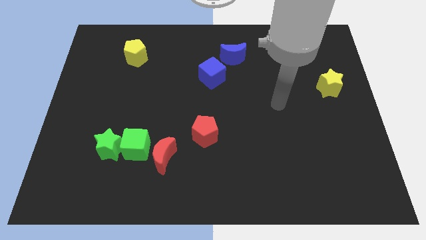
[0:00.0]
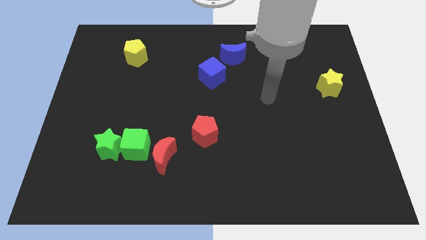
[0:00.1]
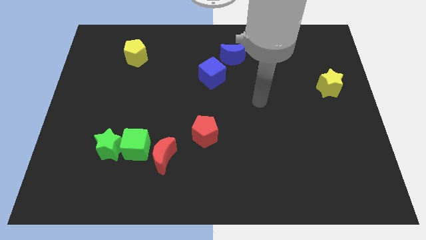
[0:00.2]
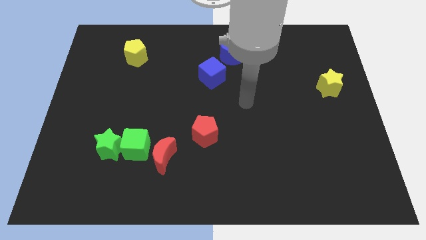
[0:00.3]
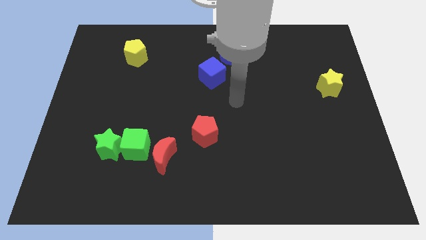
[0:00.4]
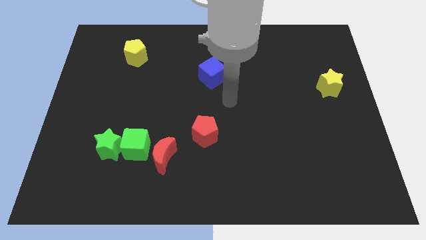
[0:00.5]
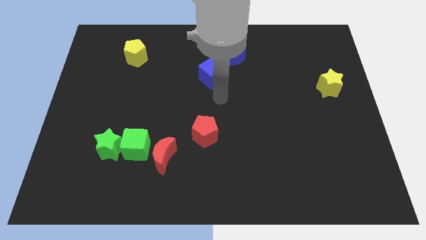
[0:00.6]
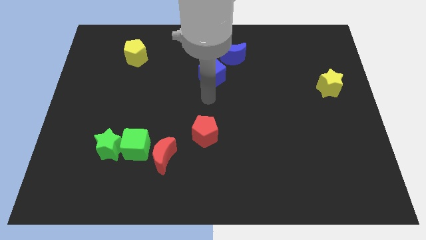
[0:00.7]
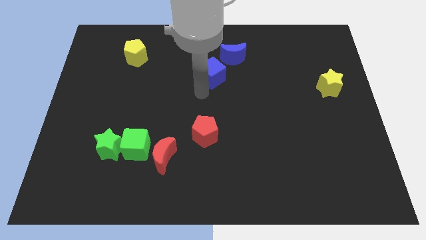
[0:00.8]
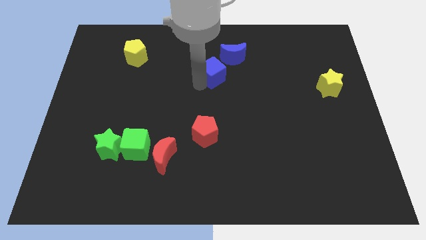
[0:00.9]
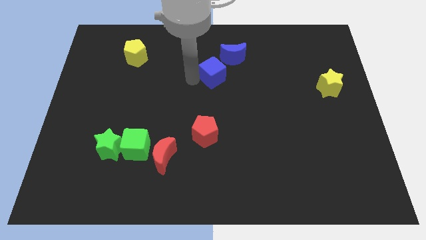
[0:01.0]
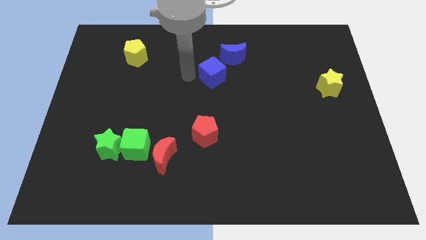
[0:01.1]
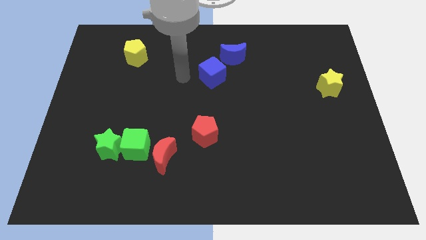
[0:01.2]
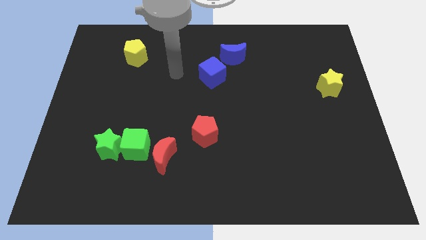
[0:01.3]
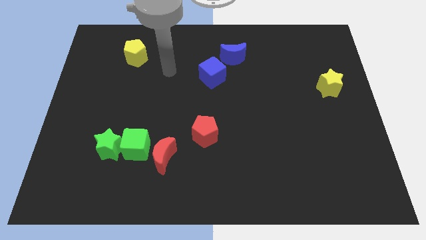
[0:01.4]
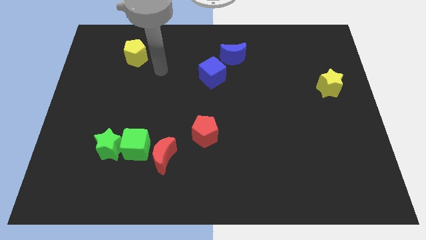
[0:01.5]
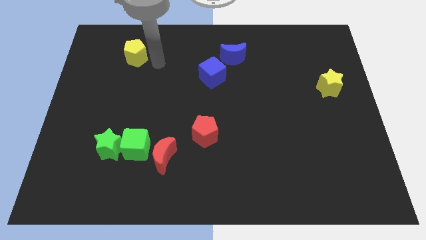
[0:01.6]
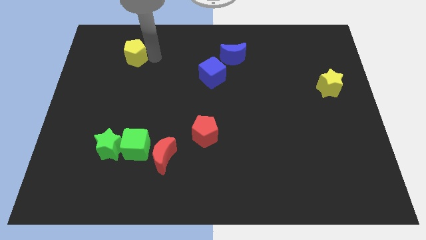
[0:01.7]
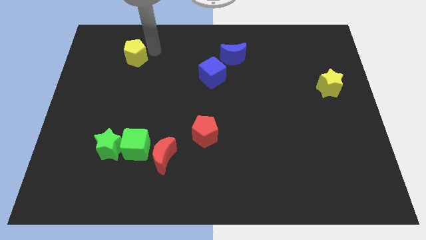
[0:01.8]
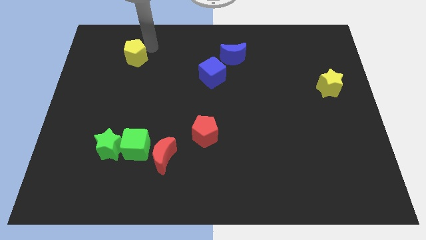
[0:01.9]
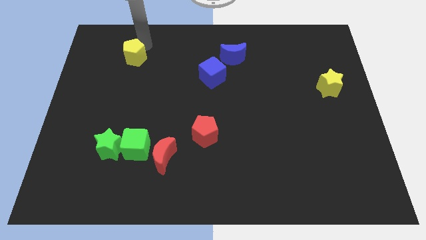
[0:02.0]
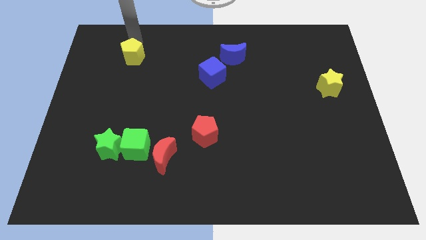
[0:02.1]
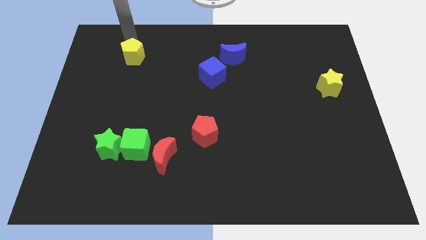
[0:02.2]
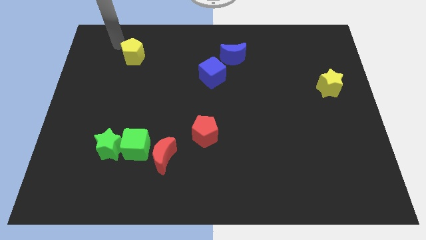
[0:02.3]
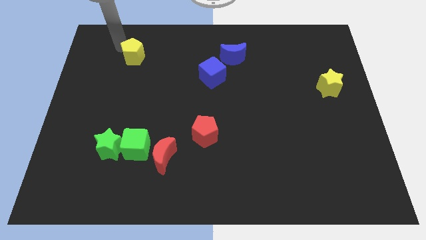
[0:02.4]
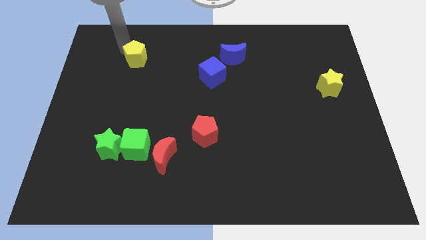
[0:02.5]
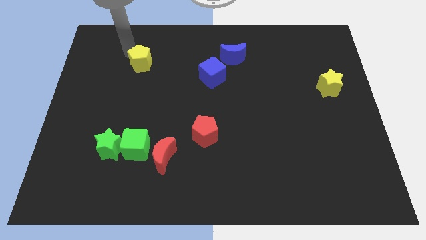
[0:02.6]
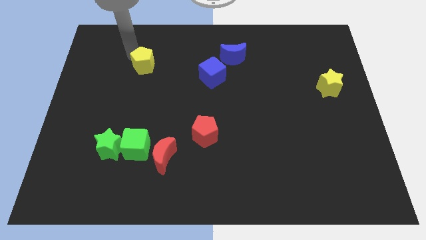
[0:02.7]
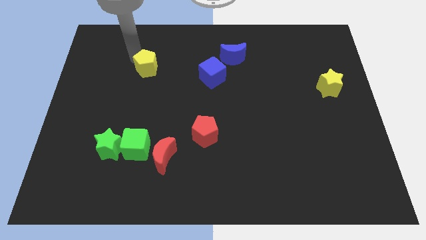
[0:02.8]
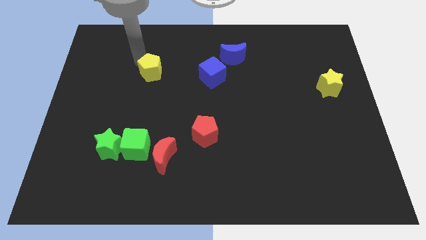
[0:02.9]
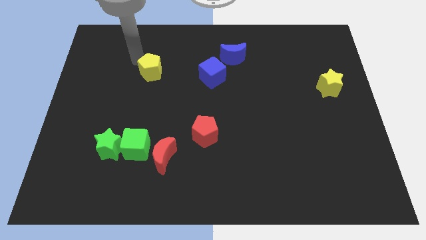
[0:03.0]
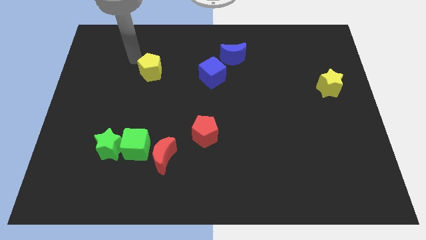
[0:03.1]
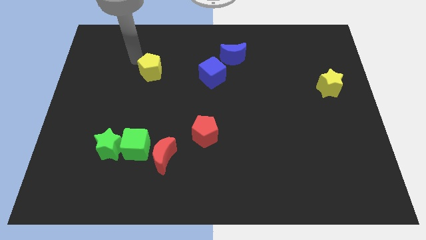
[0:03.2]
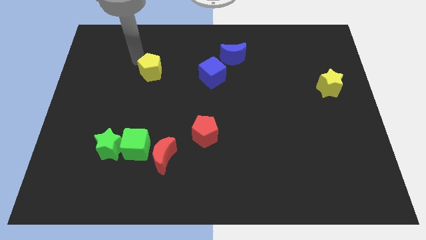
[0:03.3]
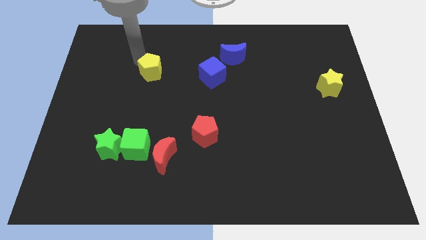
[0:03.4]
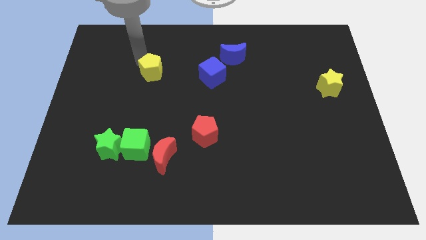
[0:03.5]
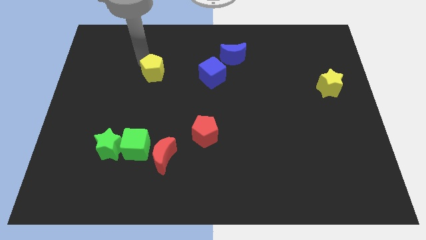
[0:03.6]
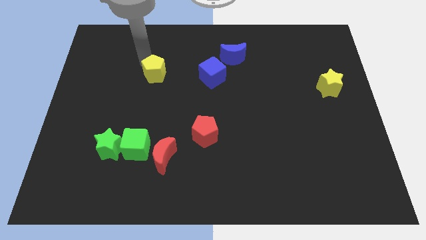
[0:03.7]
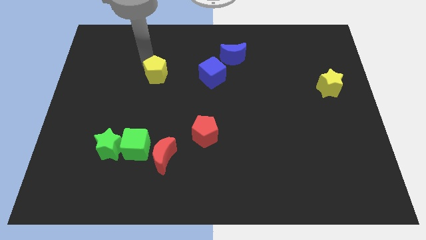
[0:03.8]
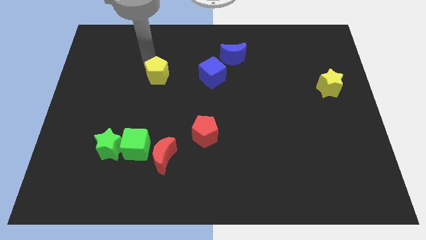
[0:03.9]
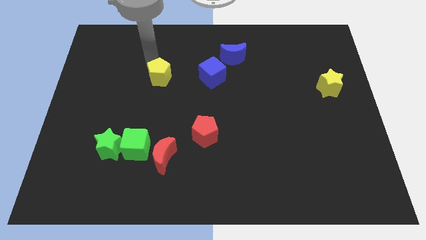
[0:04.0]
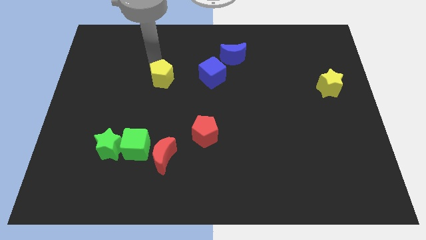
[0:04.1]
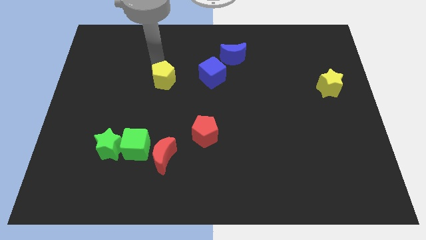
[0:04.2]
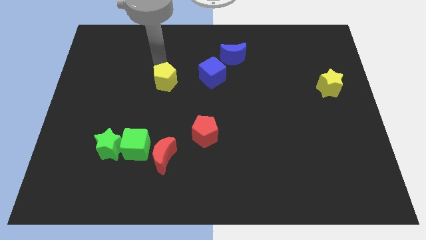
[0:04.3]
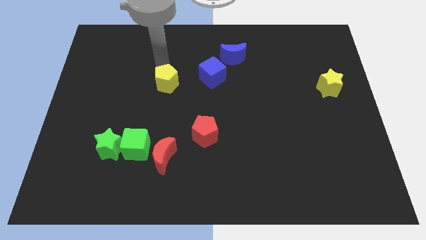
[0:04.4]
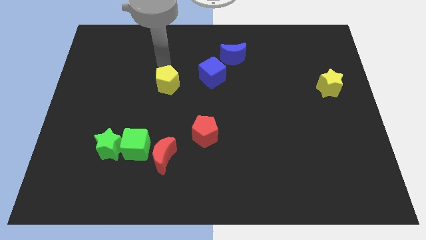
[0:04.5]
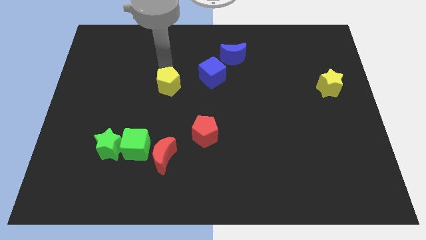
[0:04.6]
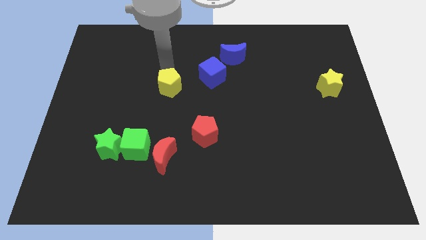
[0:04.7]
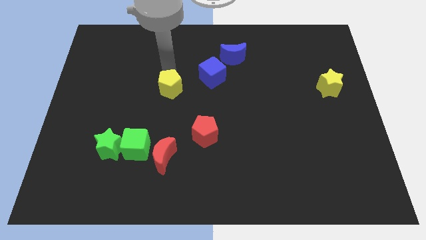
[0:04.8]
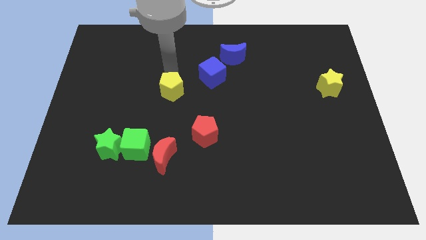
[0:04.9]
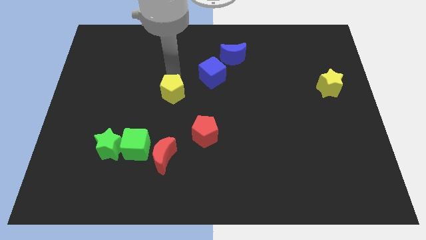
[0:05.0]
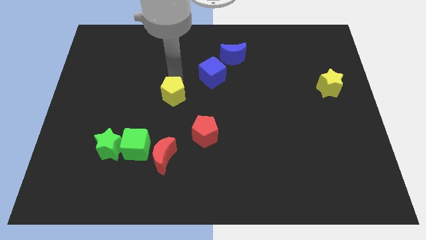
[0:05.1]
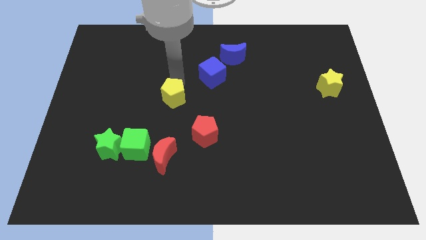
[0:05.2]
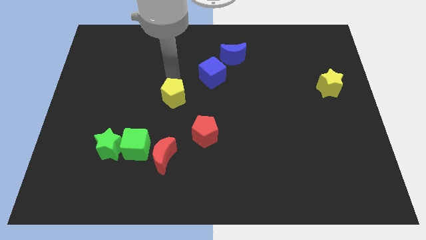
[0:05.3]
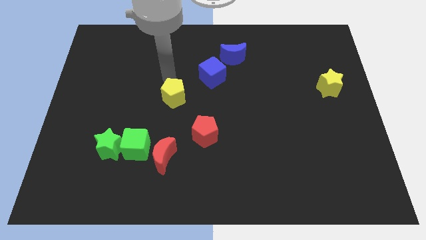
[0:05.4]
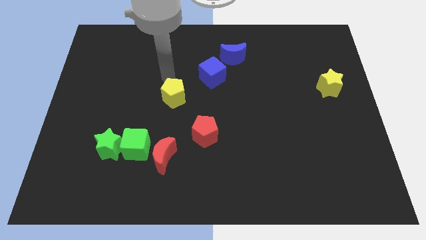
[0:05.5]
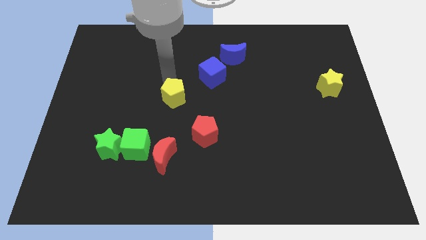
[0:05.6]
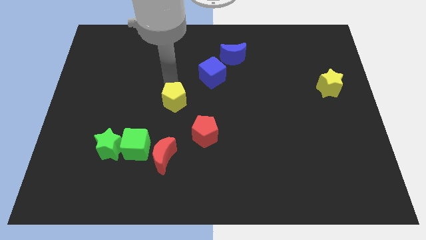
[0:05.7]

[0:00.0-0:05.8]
put the yellow pentagon to the top left side of the red pentagon

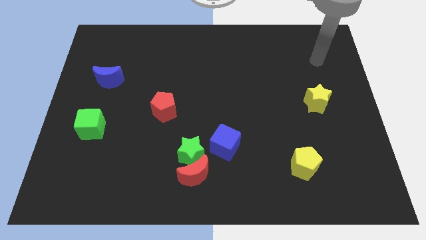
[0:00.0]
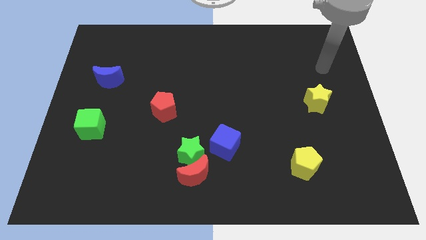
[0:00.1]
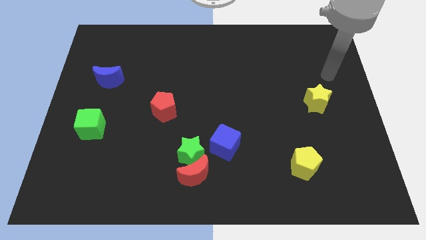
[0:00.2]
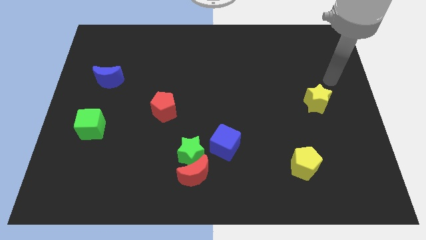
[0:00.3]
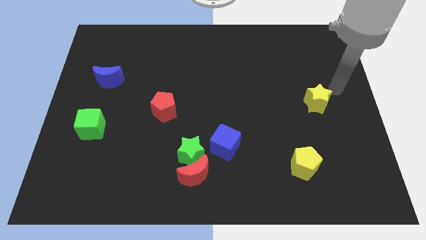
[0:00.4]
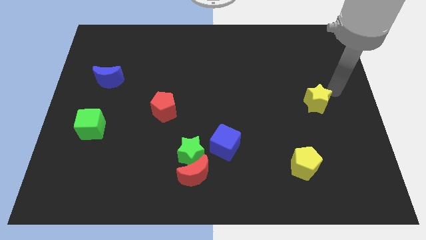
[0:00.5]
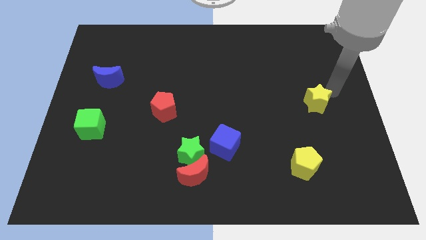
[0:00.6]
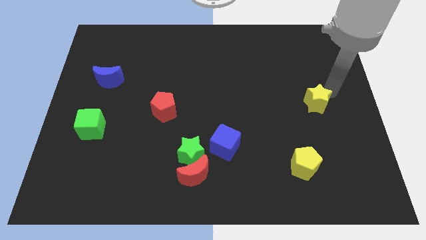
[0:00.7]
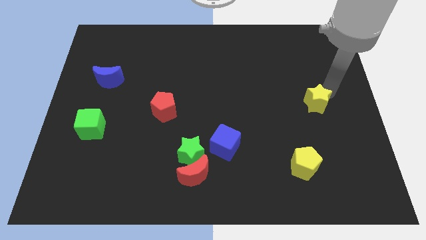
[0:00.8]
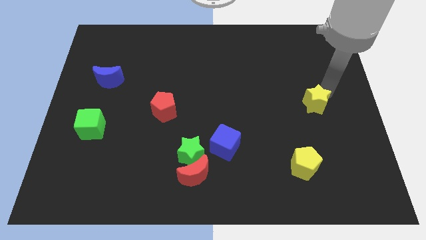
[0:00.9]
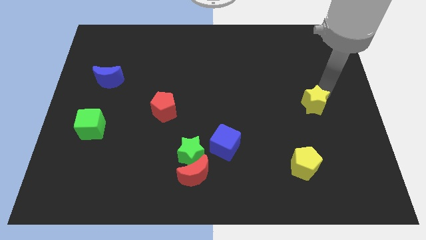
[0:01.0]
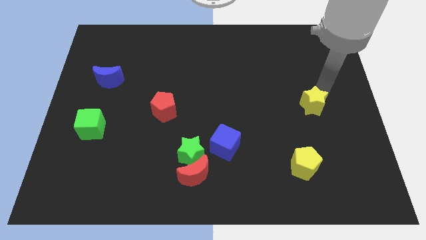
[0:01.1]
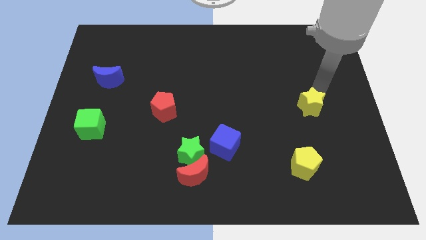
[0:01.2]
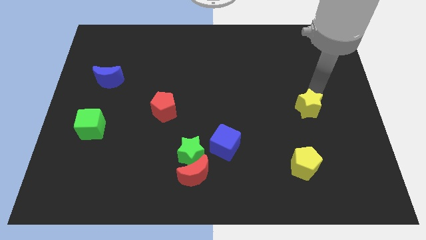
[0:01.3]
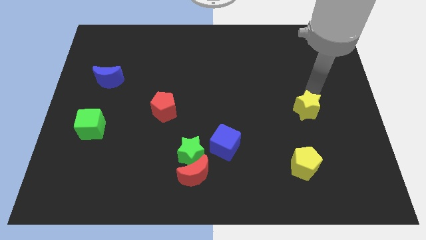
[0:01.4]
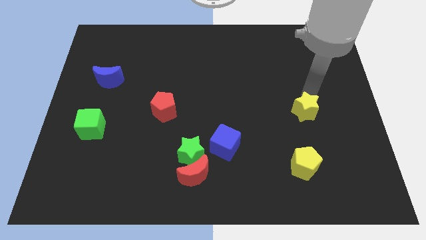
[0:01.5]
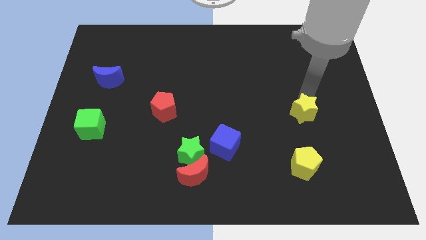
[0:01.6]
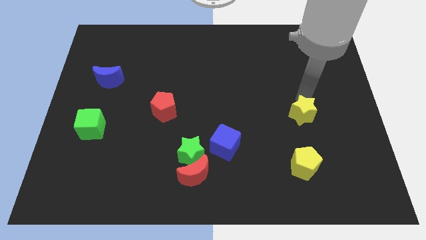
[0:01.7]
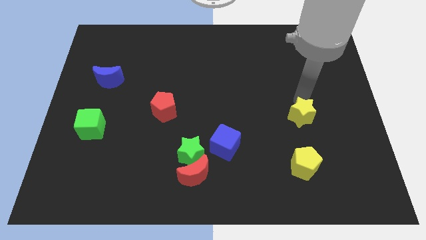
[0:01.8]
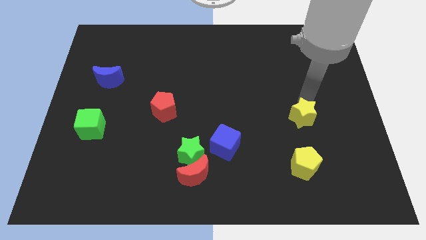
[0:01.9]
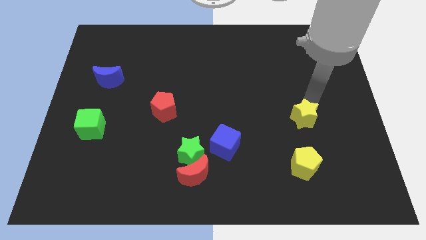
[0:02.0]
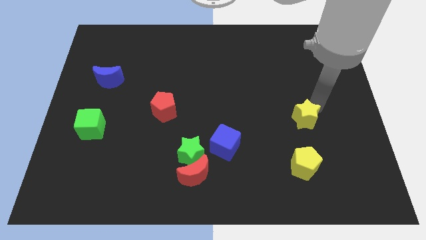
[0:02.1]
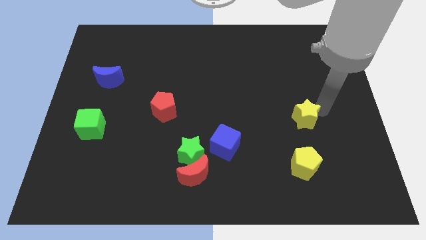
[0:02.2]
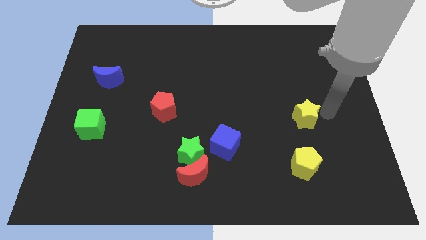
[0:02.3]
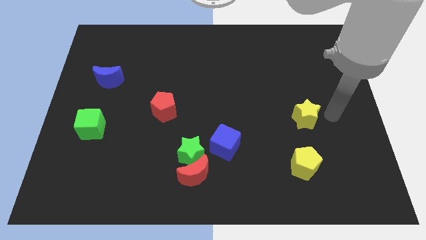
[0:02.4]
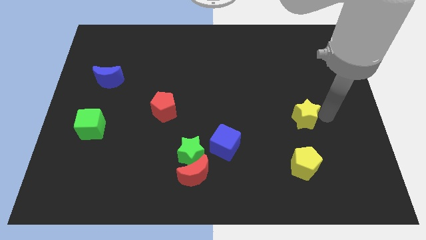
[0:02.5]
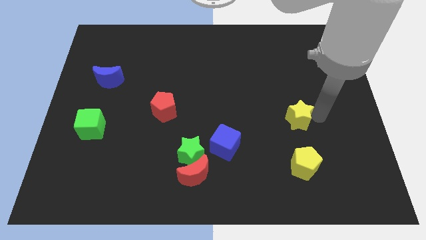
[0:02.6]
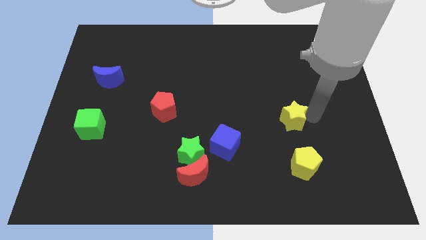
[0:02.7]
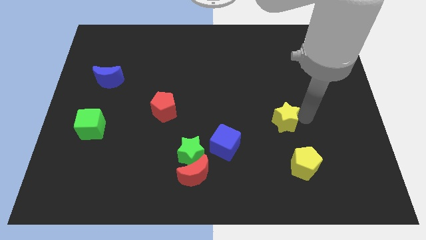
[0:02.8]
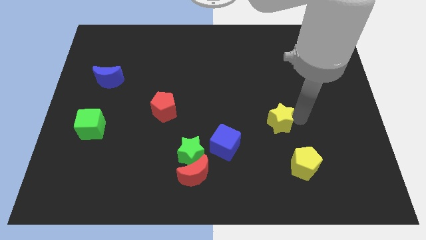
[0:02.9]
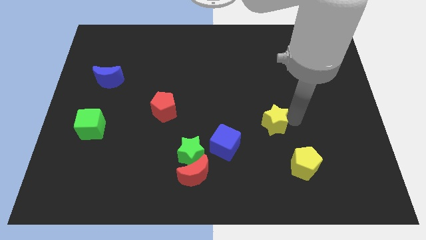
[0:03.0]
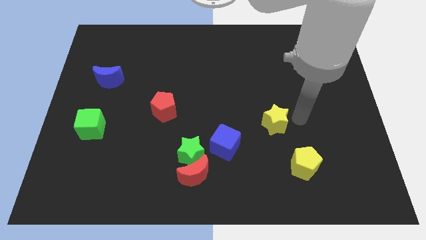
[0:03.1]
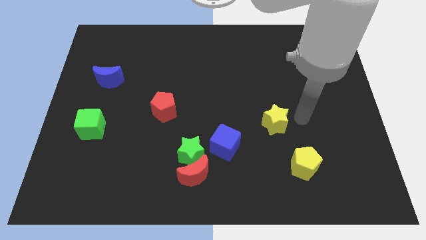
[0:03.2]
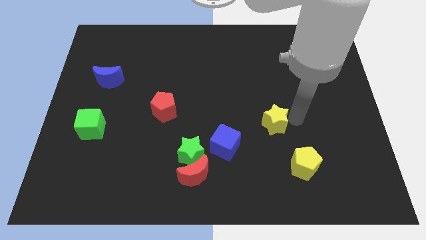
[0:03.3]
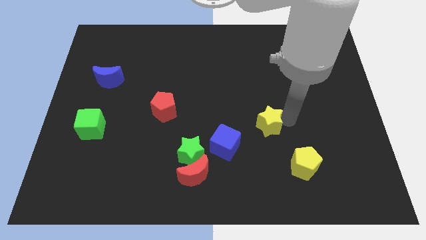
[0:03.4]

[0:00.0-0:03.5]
move the yellow star to the top right side of the blue cube
